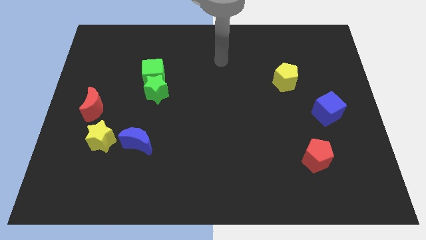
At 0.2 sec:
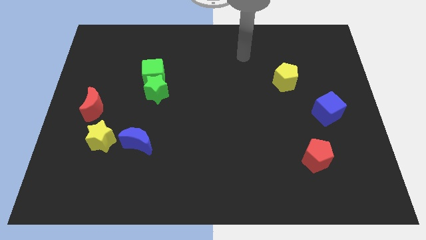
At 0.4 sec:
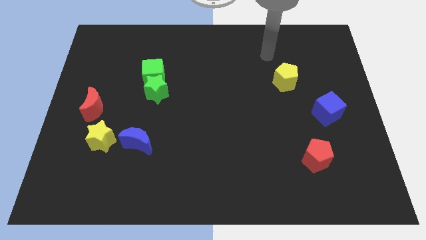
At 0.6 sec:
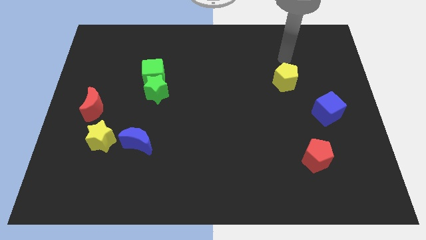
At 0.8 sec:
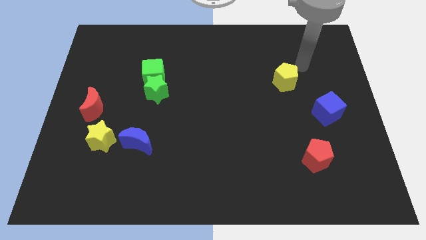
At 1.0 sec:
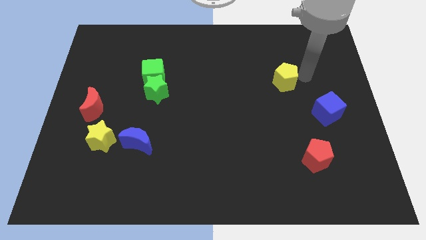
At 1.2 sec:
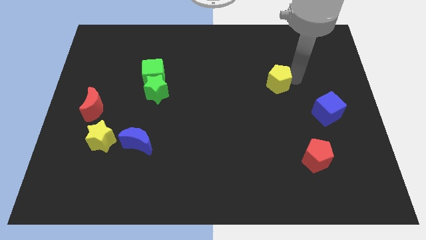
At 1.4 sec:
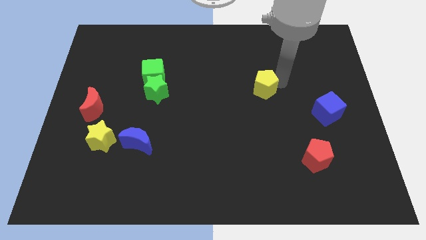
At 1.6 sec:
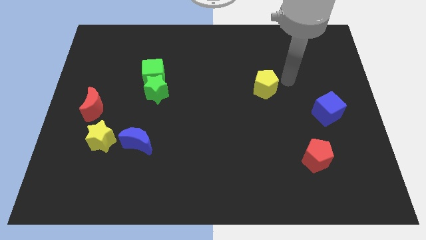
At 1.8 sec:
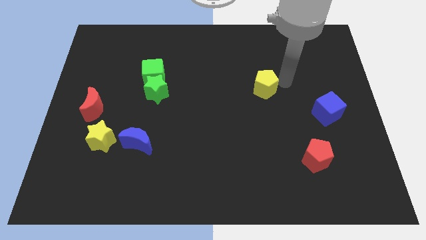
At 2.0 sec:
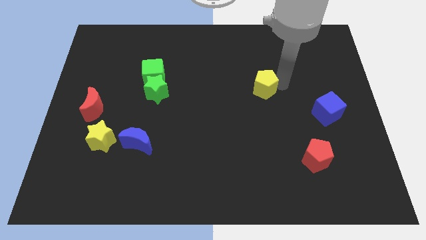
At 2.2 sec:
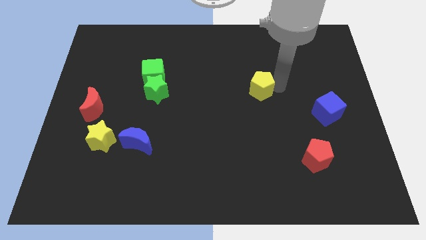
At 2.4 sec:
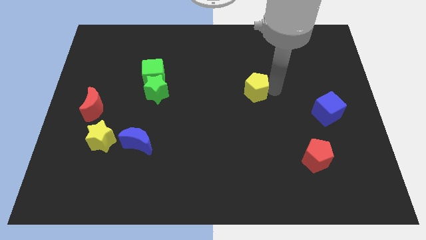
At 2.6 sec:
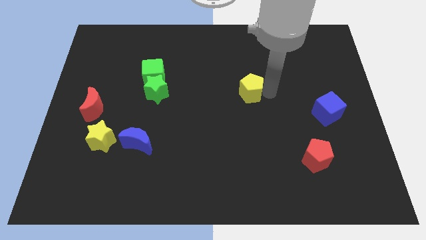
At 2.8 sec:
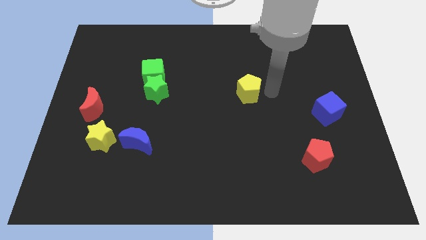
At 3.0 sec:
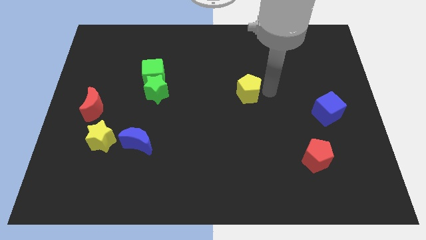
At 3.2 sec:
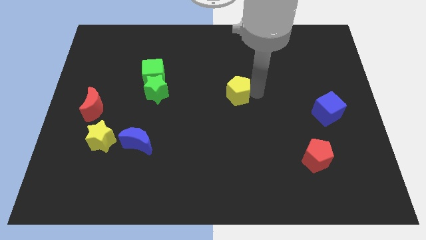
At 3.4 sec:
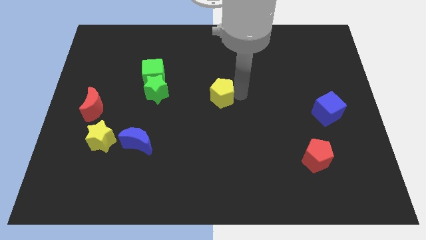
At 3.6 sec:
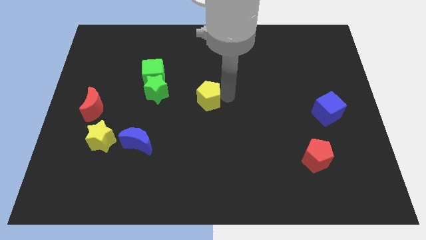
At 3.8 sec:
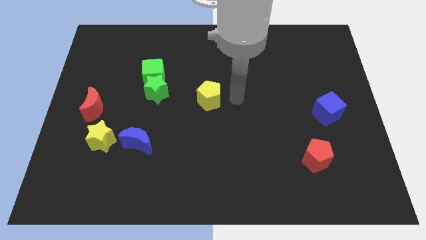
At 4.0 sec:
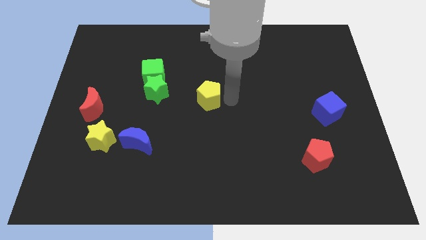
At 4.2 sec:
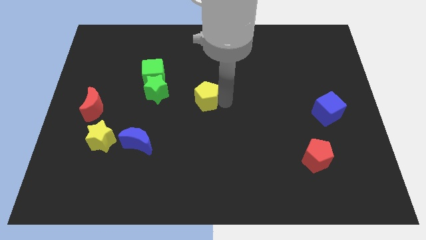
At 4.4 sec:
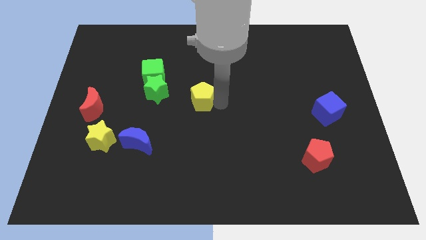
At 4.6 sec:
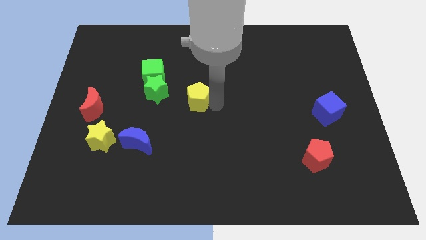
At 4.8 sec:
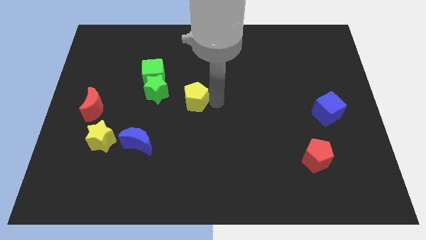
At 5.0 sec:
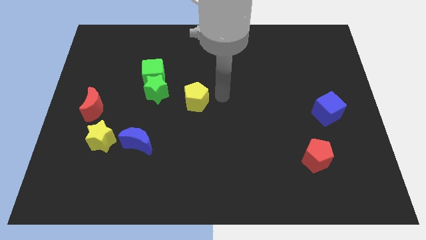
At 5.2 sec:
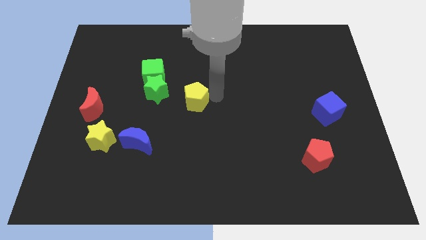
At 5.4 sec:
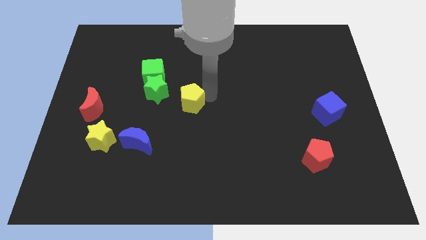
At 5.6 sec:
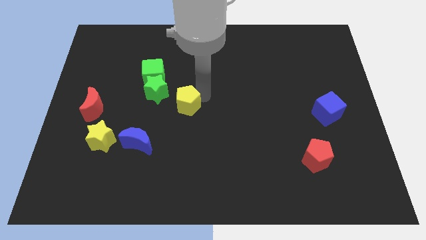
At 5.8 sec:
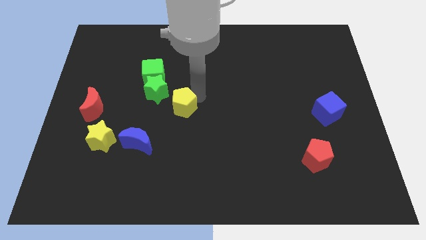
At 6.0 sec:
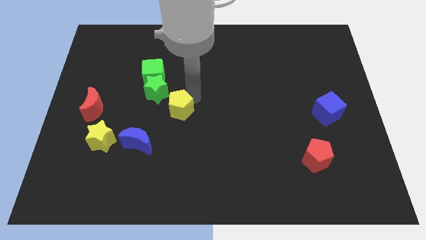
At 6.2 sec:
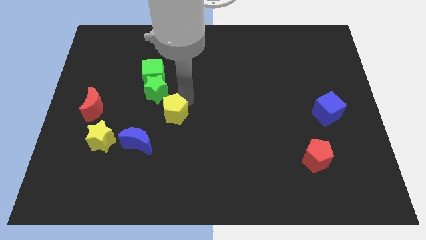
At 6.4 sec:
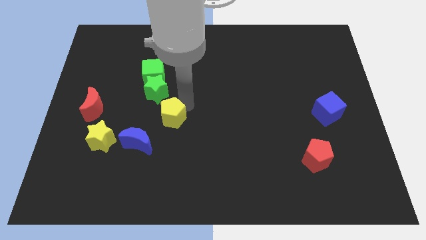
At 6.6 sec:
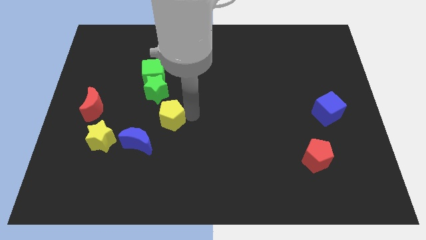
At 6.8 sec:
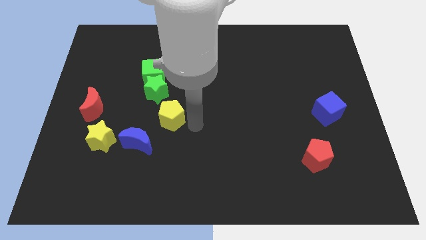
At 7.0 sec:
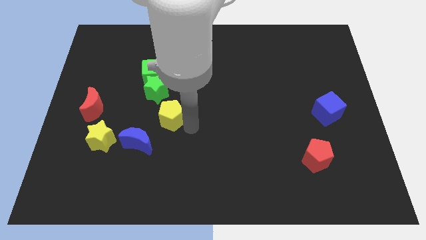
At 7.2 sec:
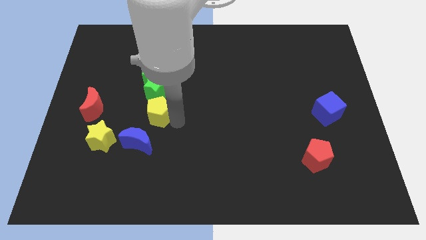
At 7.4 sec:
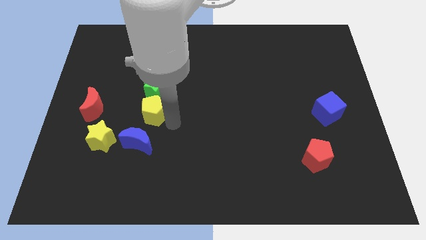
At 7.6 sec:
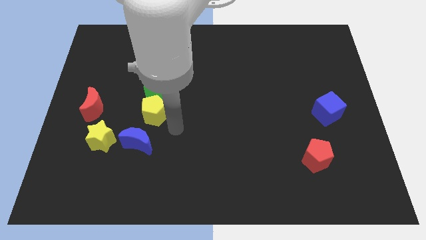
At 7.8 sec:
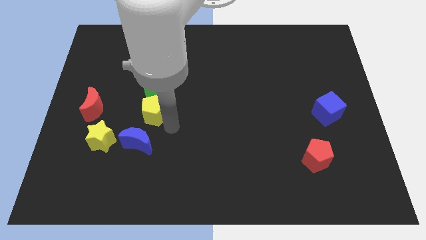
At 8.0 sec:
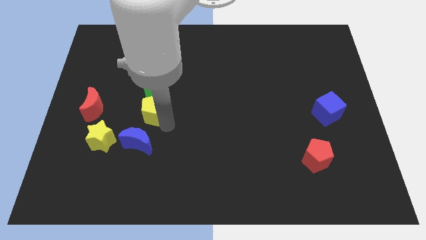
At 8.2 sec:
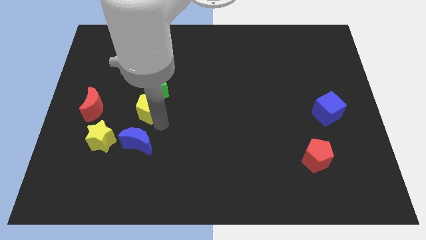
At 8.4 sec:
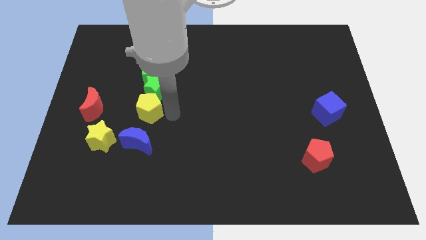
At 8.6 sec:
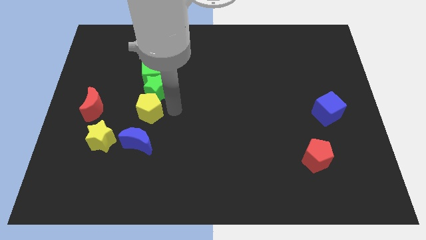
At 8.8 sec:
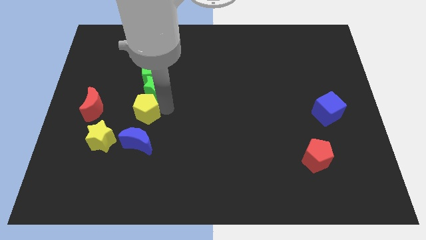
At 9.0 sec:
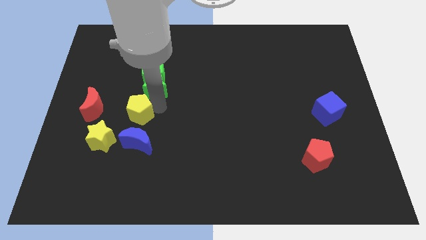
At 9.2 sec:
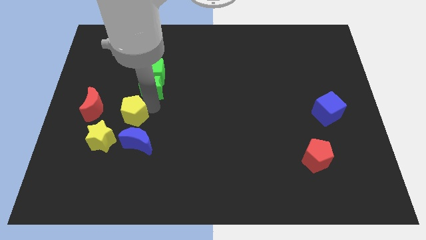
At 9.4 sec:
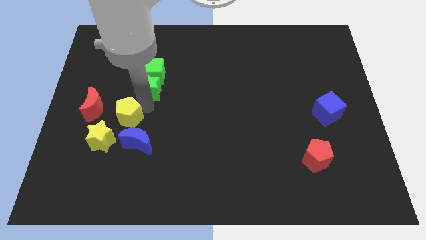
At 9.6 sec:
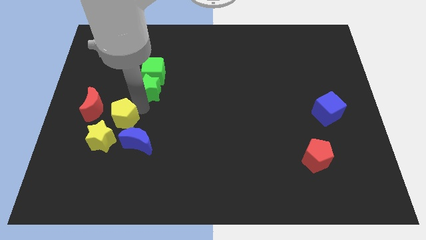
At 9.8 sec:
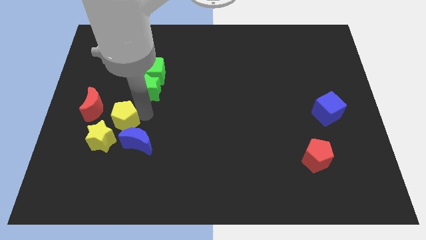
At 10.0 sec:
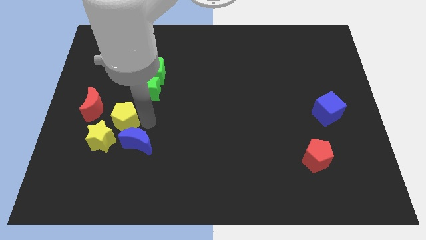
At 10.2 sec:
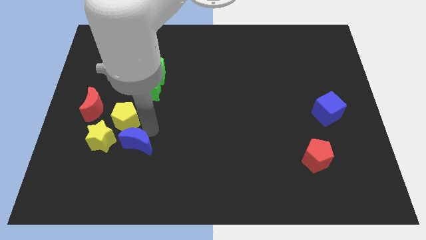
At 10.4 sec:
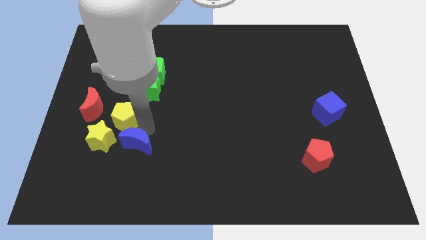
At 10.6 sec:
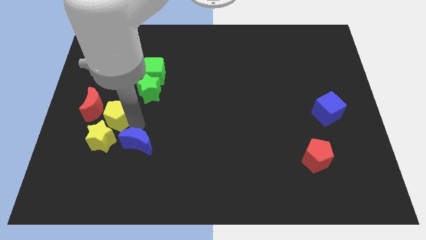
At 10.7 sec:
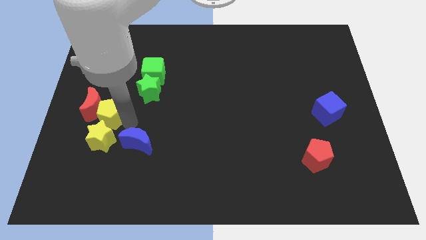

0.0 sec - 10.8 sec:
put the yellow pentagon to the red moon

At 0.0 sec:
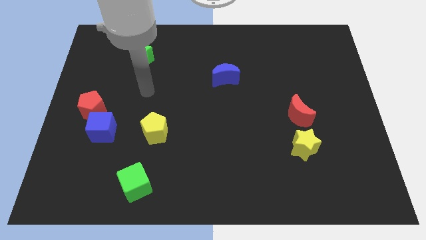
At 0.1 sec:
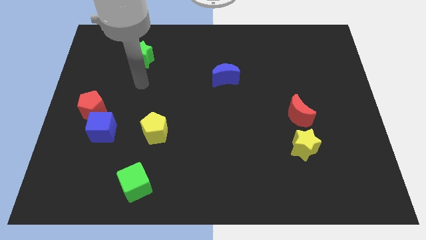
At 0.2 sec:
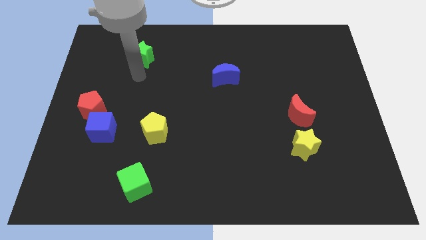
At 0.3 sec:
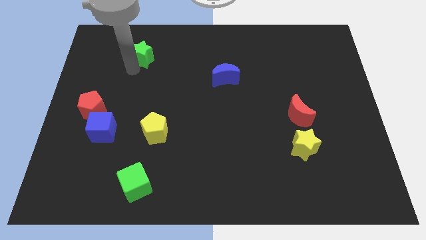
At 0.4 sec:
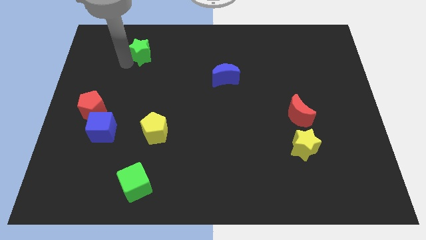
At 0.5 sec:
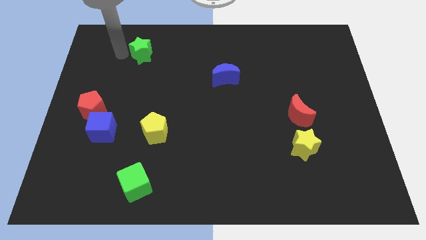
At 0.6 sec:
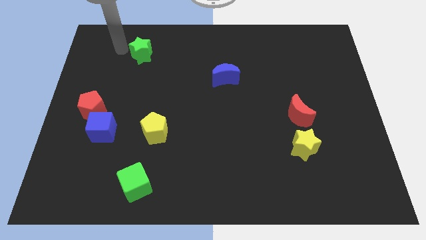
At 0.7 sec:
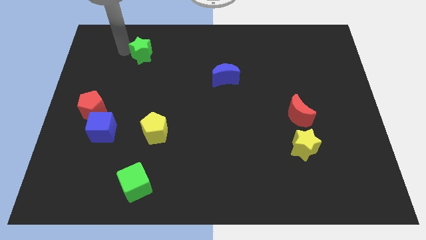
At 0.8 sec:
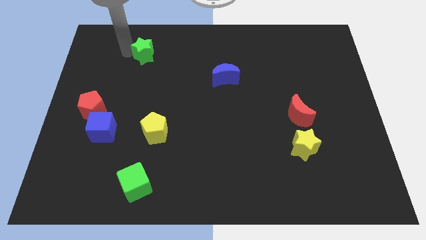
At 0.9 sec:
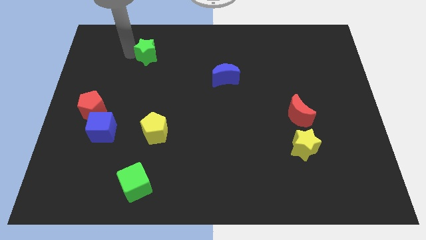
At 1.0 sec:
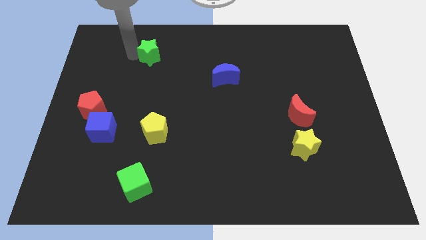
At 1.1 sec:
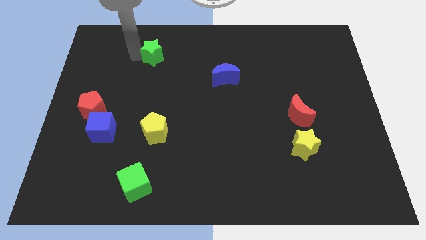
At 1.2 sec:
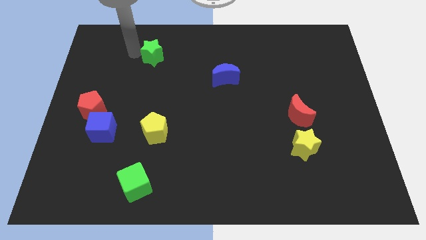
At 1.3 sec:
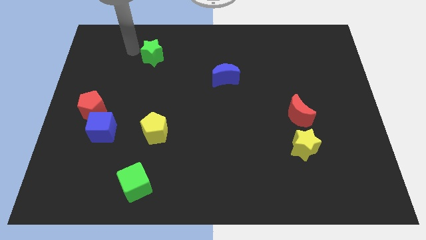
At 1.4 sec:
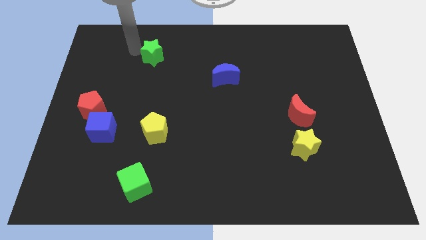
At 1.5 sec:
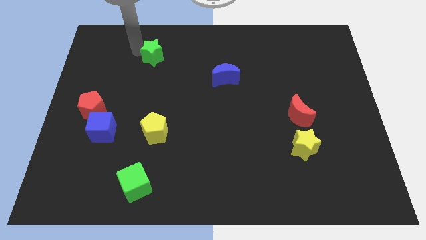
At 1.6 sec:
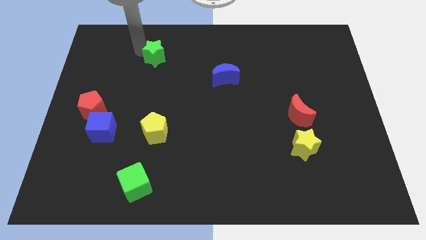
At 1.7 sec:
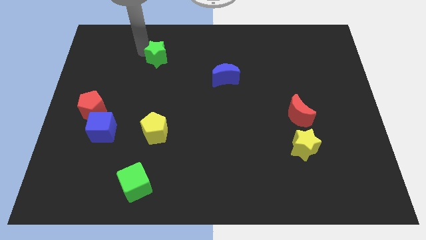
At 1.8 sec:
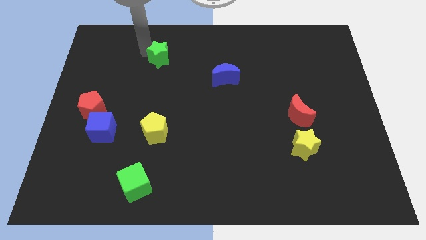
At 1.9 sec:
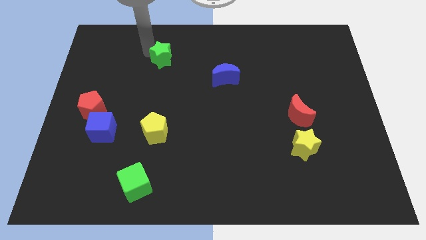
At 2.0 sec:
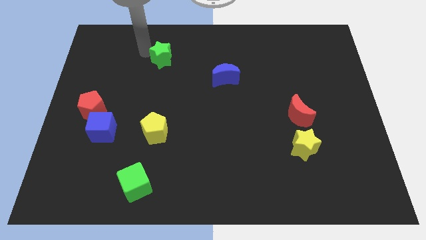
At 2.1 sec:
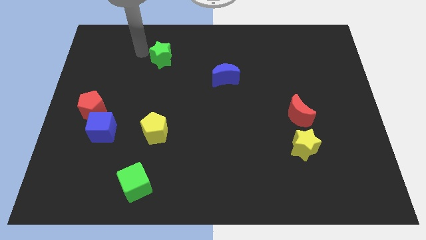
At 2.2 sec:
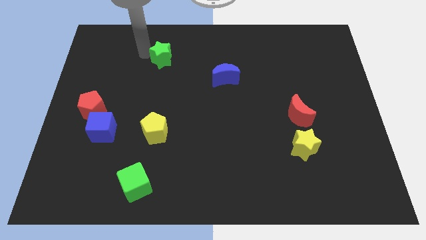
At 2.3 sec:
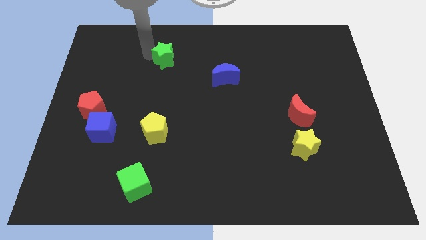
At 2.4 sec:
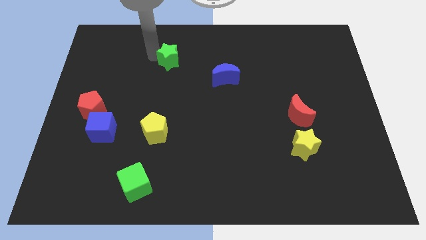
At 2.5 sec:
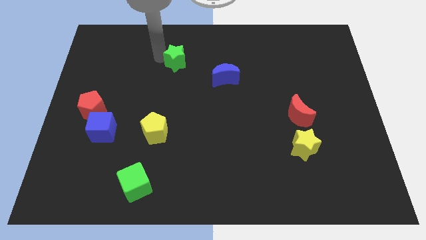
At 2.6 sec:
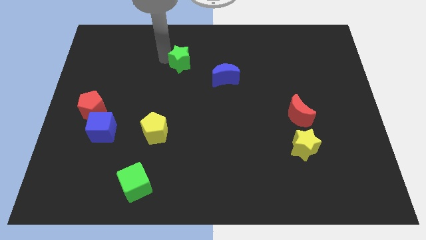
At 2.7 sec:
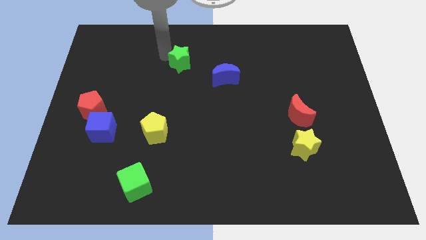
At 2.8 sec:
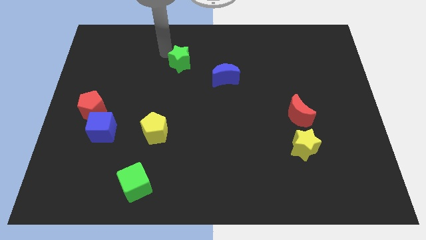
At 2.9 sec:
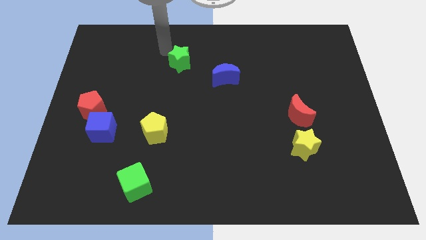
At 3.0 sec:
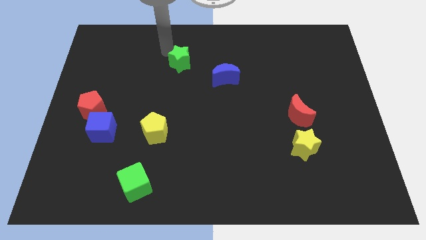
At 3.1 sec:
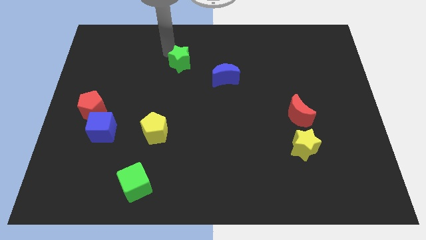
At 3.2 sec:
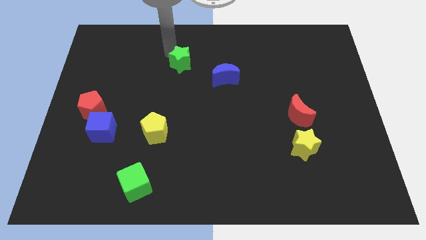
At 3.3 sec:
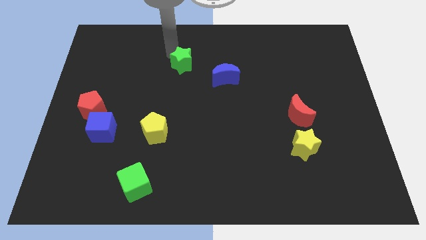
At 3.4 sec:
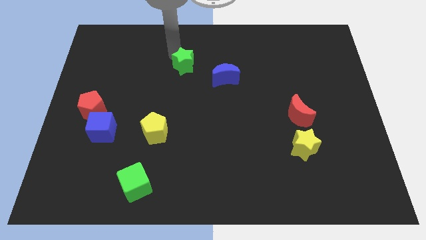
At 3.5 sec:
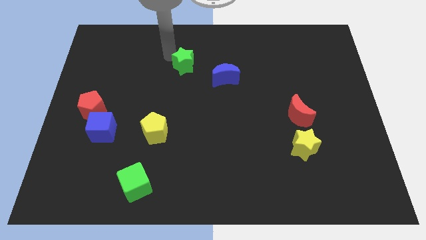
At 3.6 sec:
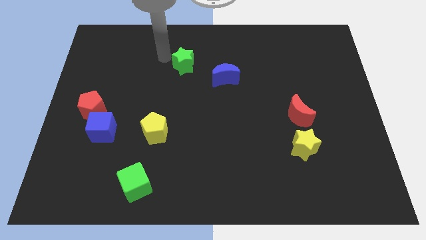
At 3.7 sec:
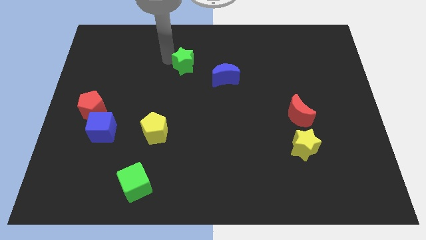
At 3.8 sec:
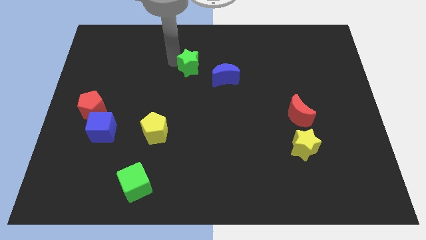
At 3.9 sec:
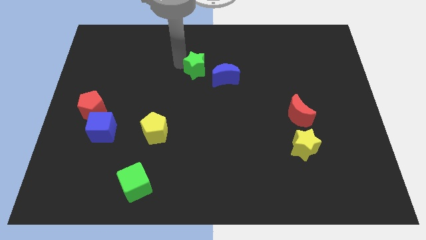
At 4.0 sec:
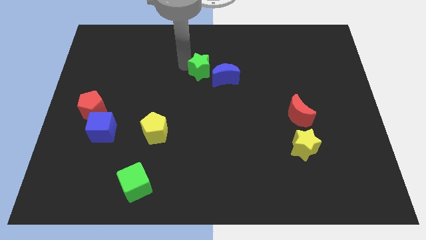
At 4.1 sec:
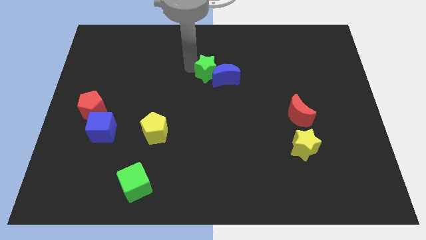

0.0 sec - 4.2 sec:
move the green star towards the blue moon
